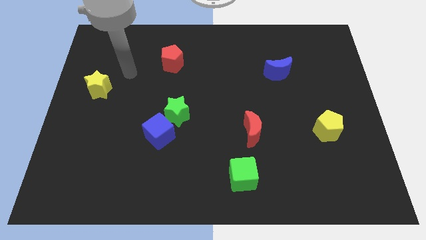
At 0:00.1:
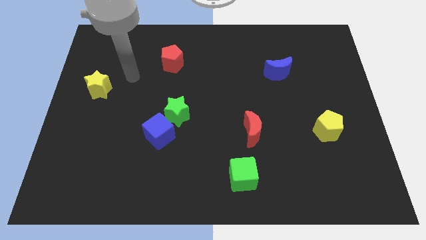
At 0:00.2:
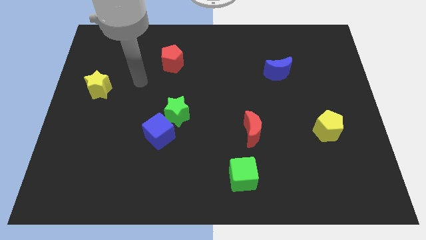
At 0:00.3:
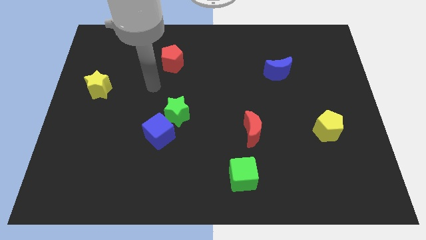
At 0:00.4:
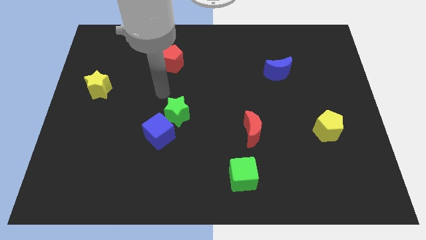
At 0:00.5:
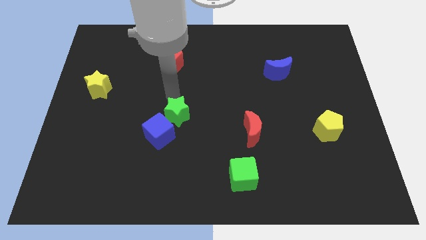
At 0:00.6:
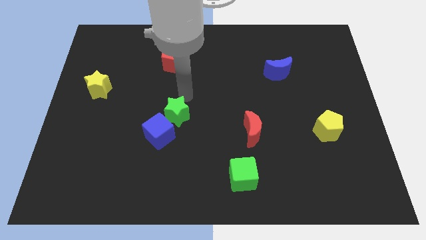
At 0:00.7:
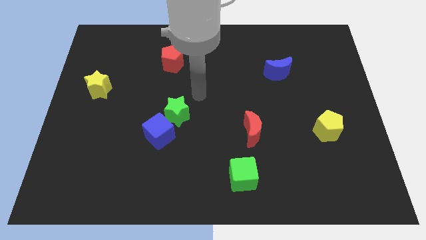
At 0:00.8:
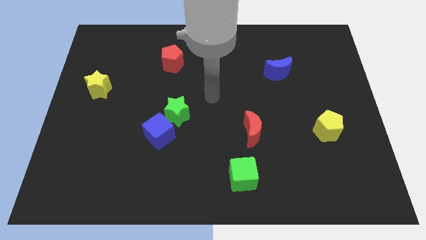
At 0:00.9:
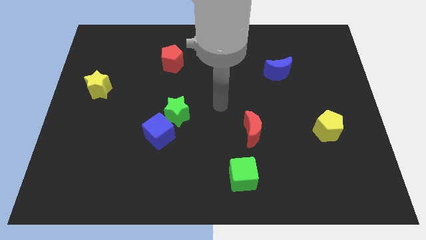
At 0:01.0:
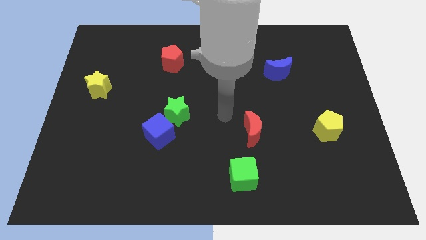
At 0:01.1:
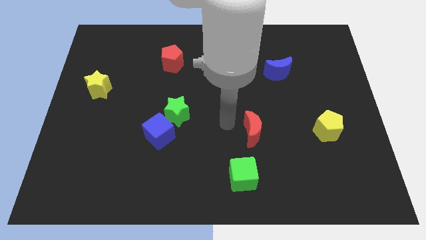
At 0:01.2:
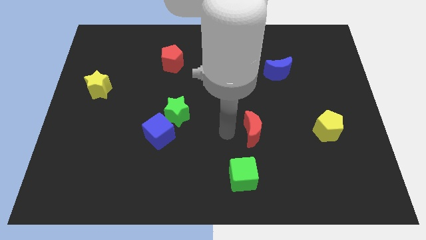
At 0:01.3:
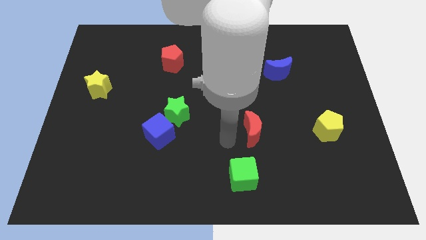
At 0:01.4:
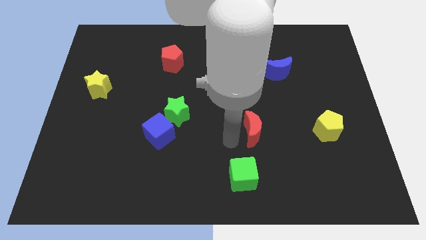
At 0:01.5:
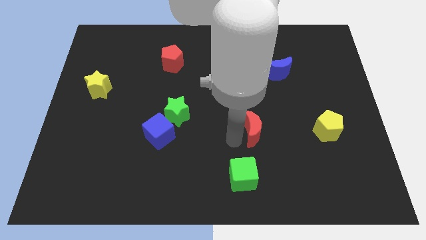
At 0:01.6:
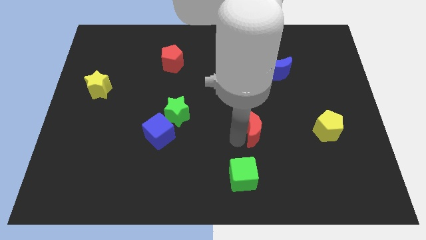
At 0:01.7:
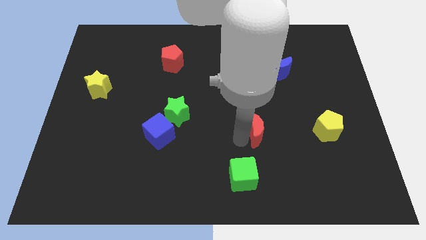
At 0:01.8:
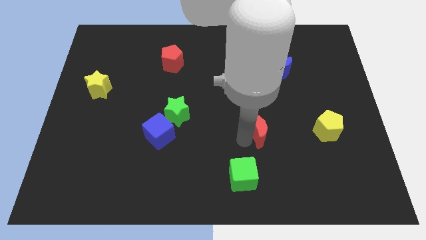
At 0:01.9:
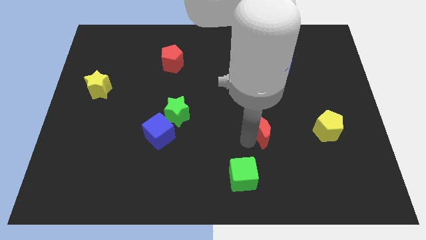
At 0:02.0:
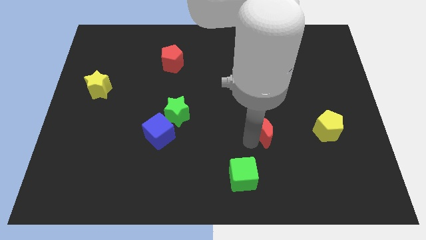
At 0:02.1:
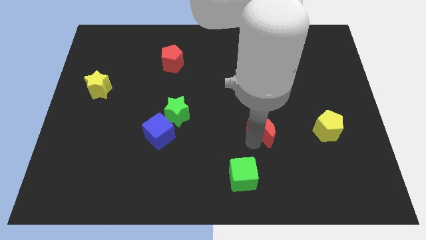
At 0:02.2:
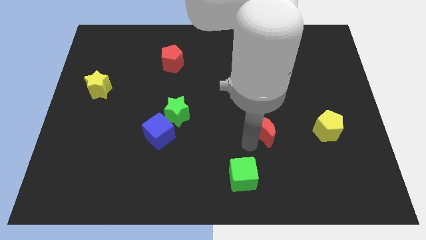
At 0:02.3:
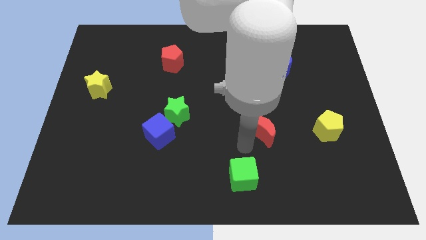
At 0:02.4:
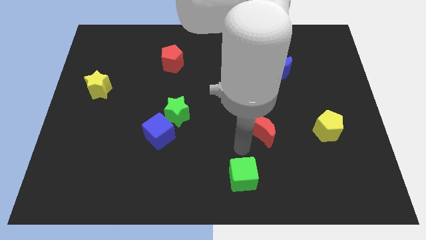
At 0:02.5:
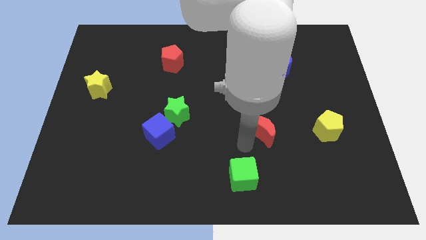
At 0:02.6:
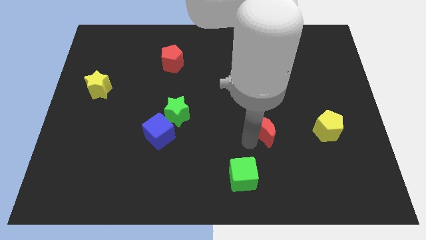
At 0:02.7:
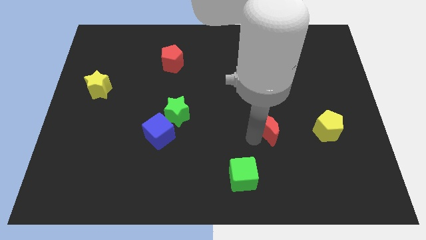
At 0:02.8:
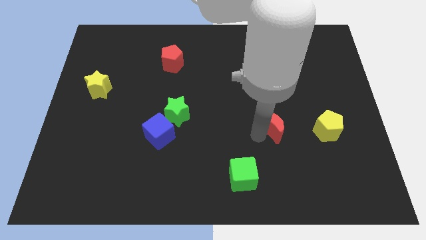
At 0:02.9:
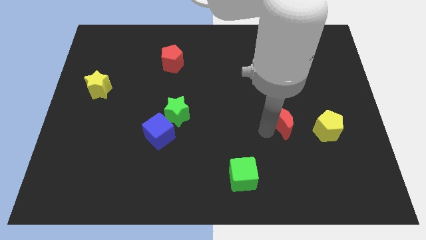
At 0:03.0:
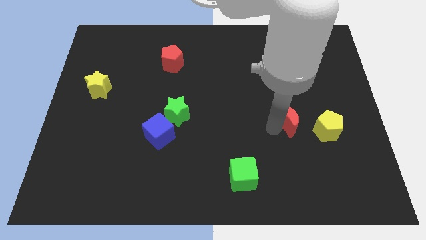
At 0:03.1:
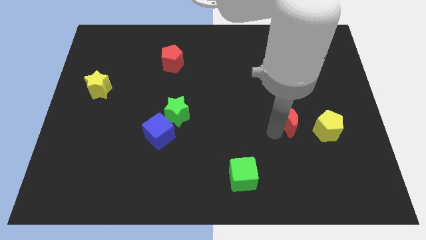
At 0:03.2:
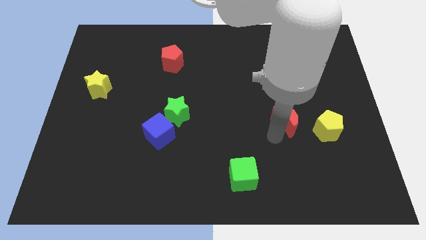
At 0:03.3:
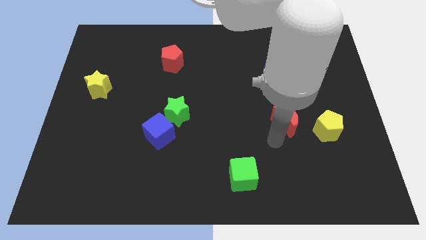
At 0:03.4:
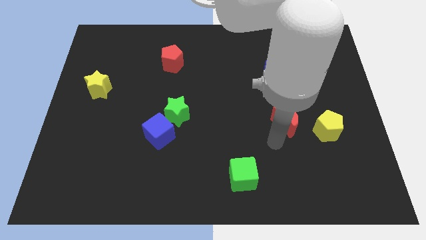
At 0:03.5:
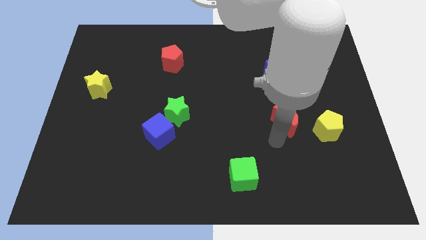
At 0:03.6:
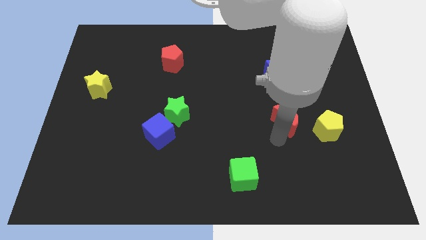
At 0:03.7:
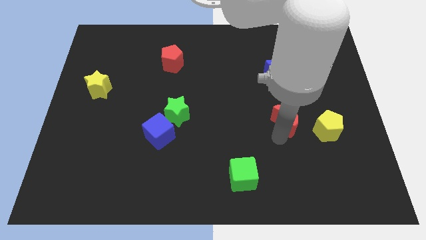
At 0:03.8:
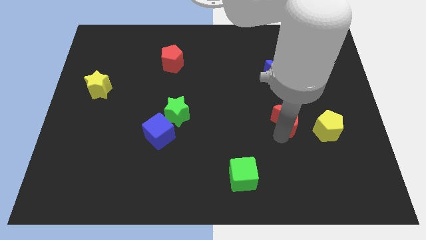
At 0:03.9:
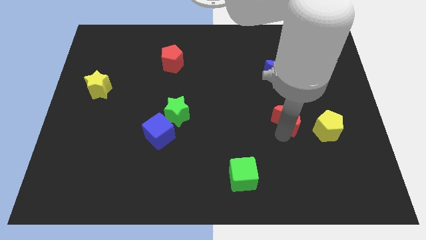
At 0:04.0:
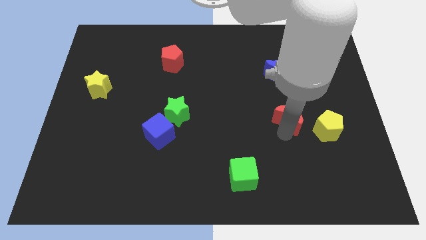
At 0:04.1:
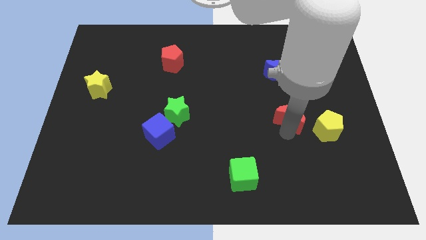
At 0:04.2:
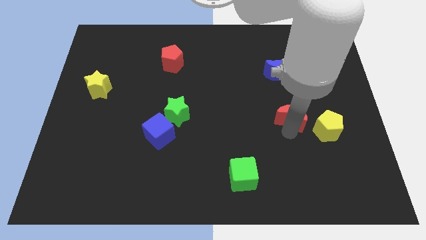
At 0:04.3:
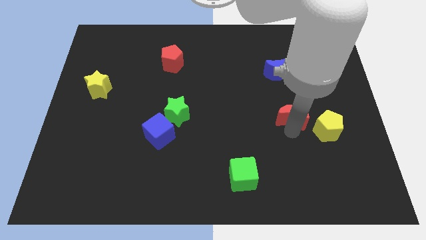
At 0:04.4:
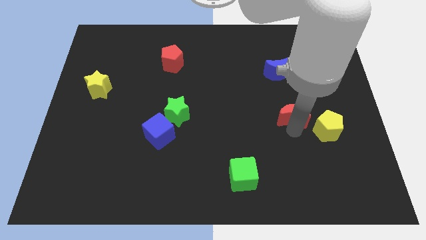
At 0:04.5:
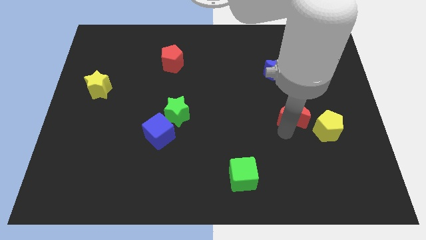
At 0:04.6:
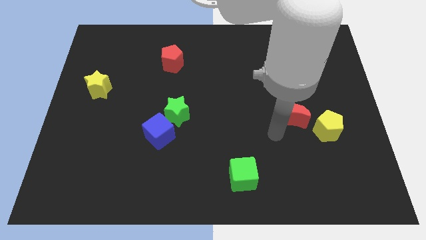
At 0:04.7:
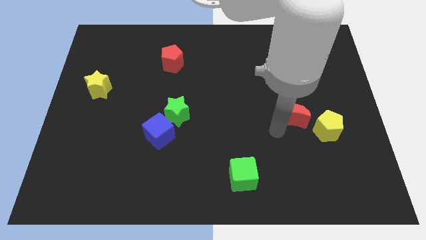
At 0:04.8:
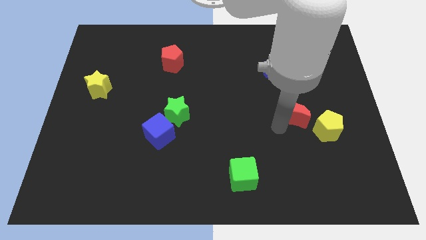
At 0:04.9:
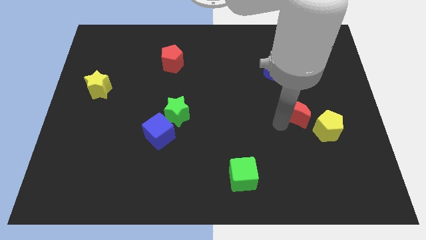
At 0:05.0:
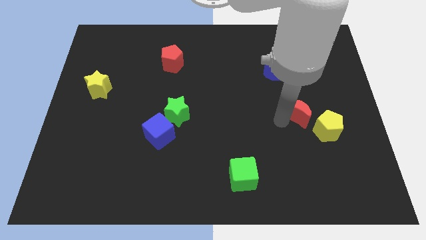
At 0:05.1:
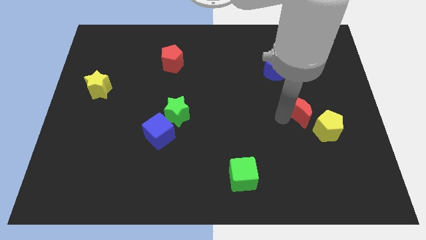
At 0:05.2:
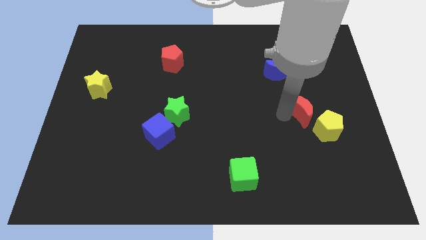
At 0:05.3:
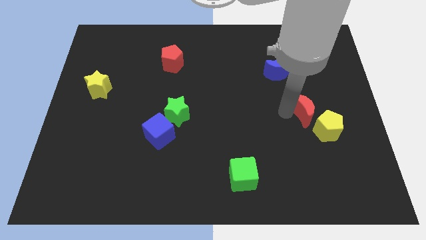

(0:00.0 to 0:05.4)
move the red moon to the top side of the yellow pentagon

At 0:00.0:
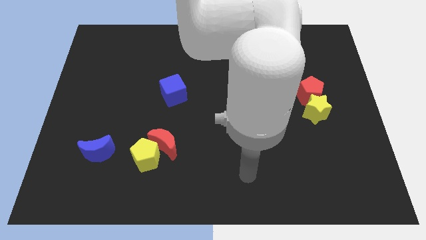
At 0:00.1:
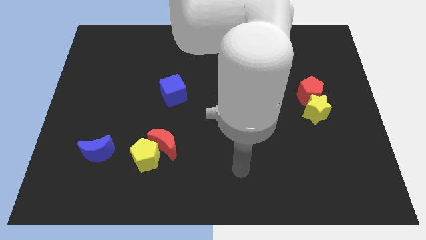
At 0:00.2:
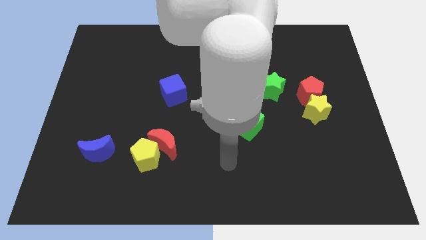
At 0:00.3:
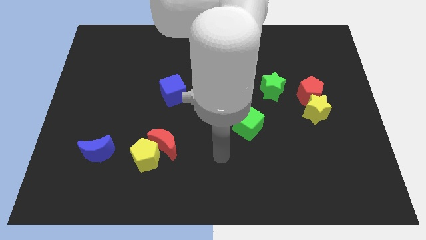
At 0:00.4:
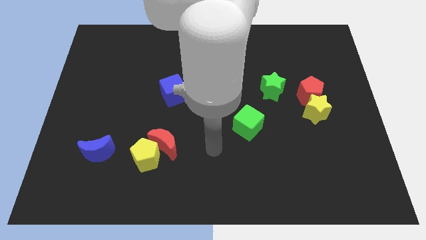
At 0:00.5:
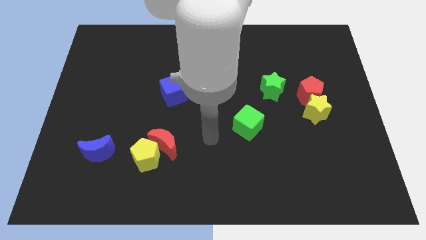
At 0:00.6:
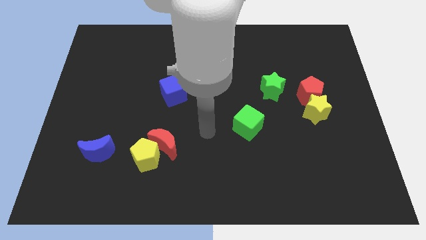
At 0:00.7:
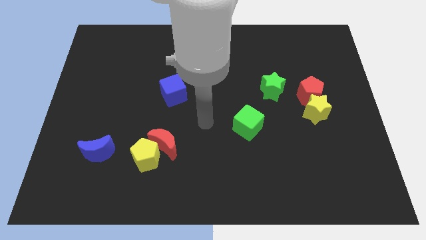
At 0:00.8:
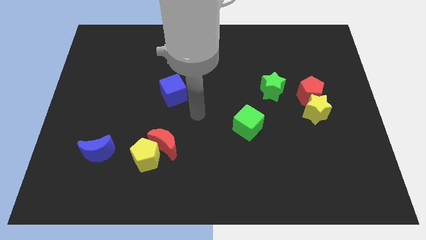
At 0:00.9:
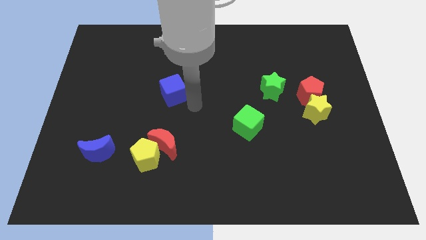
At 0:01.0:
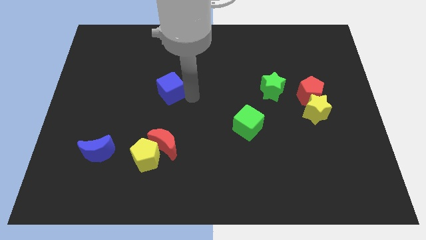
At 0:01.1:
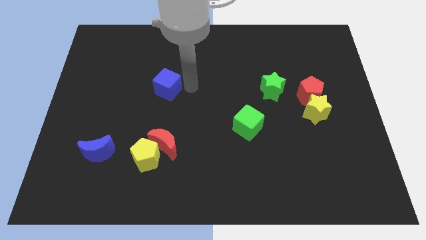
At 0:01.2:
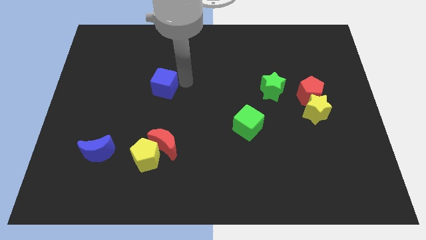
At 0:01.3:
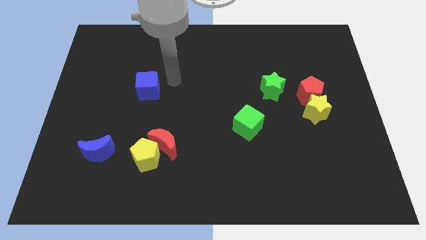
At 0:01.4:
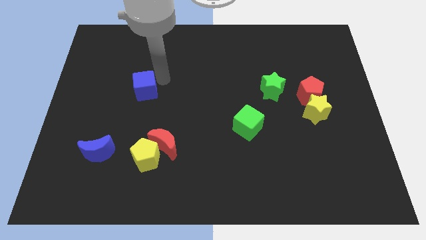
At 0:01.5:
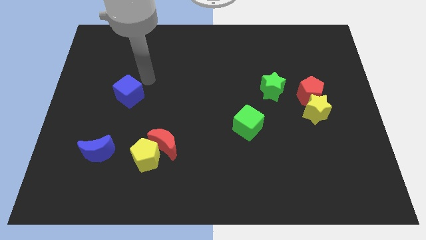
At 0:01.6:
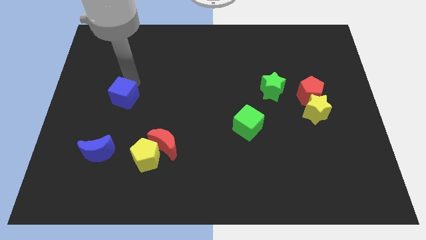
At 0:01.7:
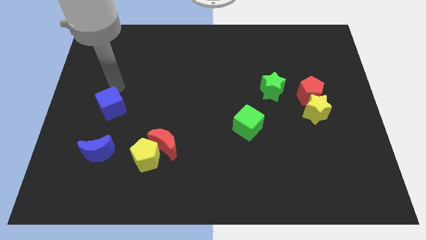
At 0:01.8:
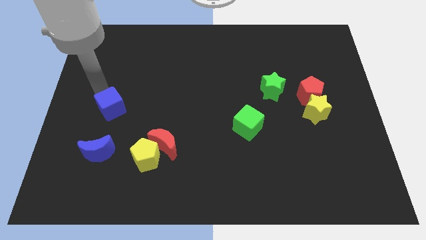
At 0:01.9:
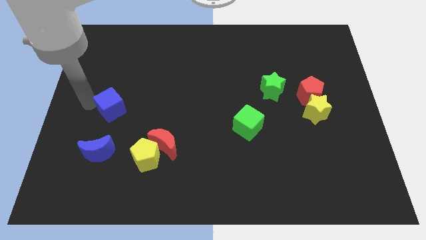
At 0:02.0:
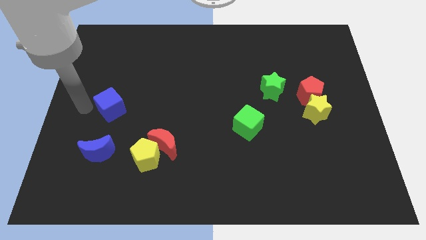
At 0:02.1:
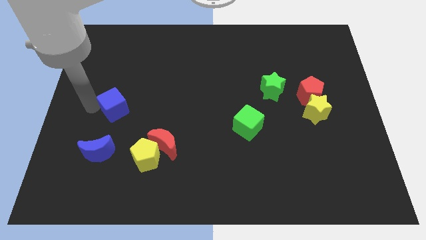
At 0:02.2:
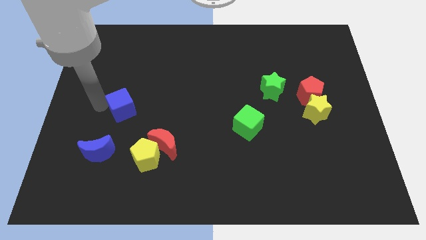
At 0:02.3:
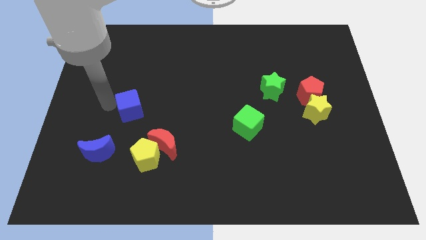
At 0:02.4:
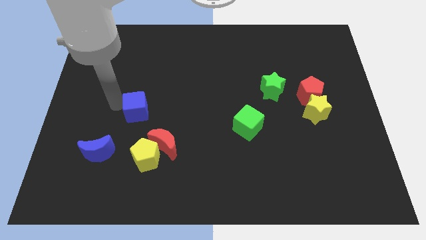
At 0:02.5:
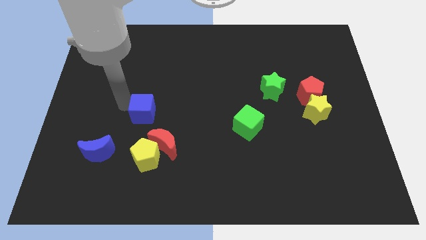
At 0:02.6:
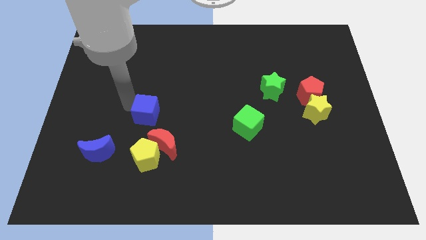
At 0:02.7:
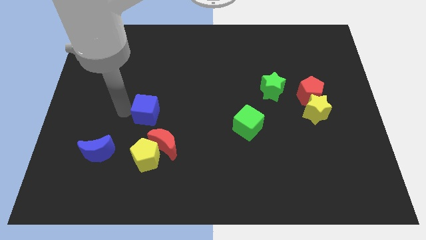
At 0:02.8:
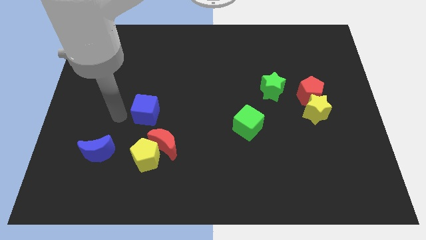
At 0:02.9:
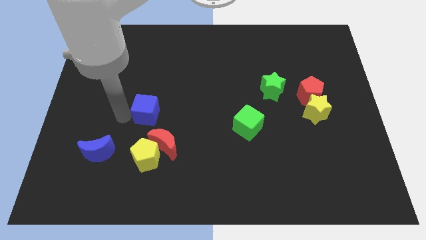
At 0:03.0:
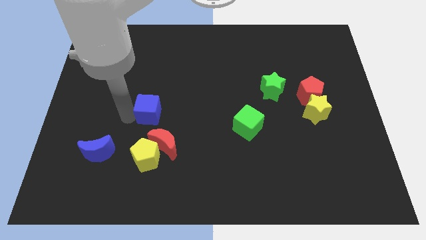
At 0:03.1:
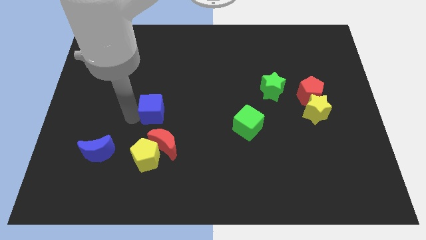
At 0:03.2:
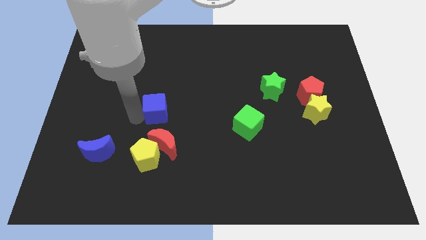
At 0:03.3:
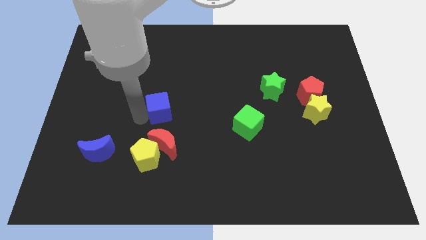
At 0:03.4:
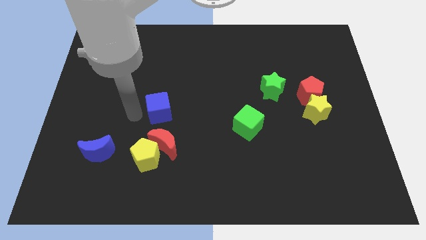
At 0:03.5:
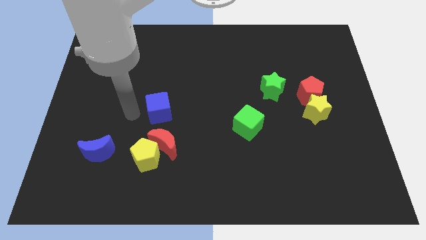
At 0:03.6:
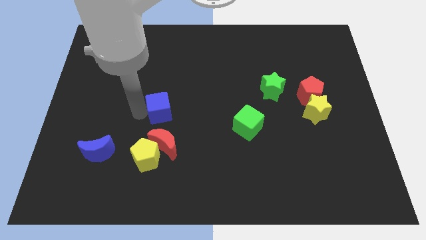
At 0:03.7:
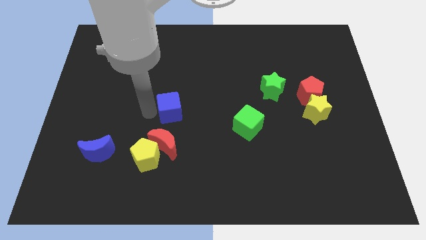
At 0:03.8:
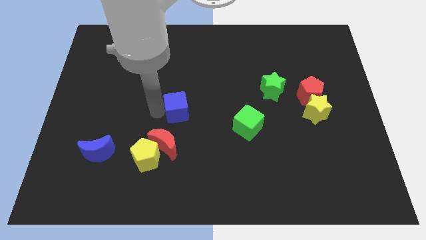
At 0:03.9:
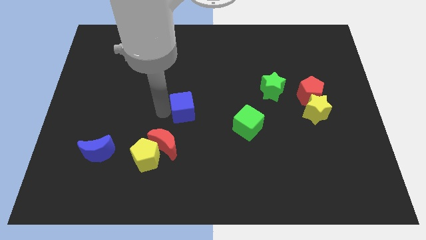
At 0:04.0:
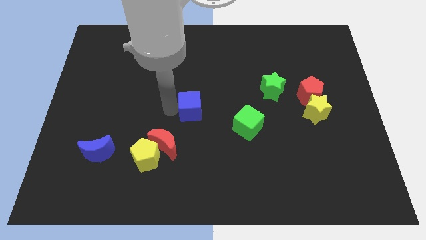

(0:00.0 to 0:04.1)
move the blue cube just left of the green cube
